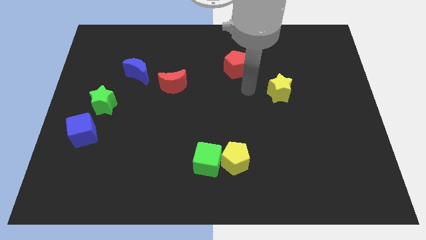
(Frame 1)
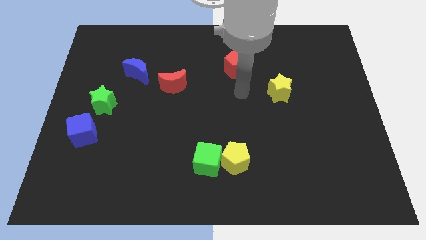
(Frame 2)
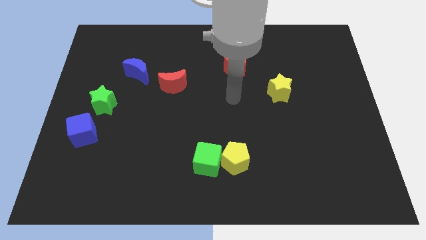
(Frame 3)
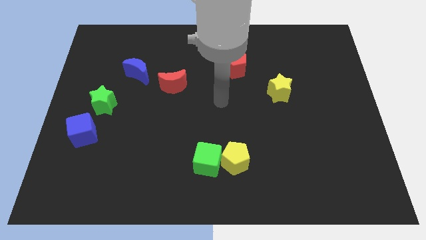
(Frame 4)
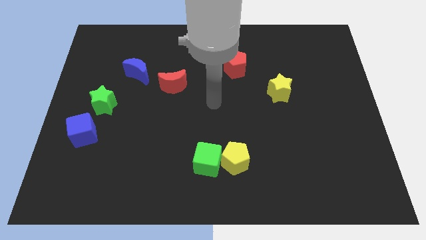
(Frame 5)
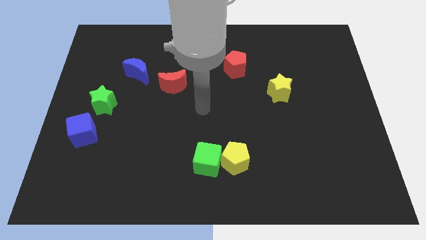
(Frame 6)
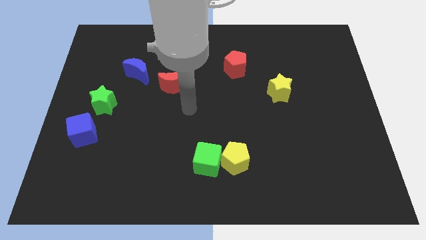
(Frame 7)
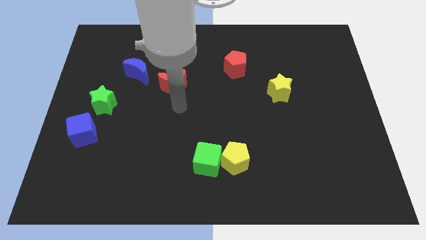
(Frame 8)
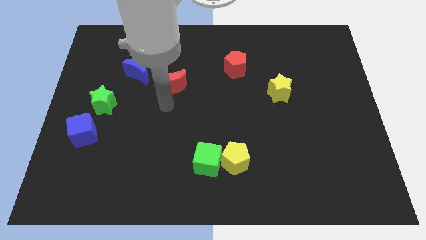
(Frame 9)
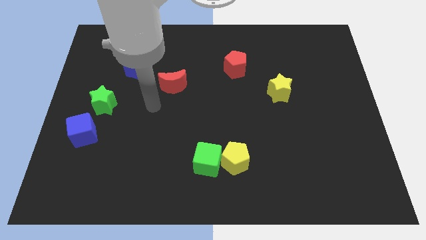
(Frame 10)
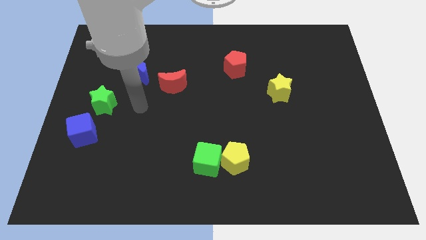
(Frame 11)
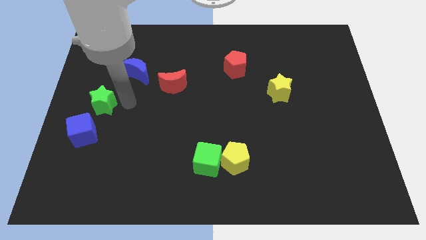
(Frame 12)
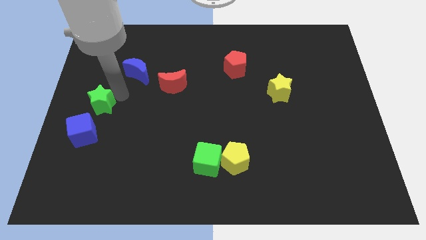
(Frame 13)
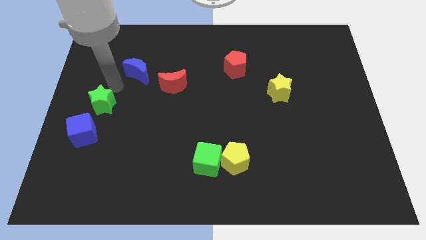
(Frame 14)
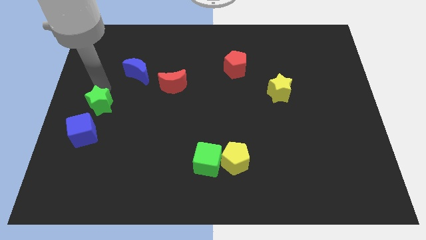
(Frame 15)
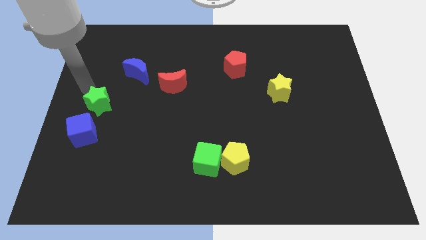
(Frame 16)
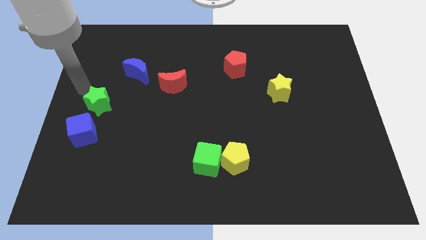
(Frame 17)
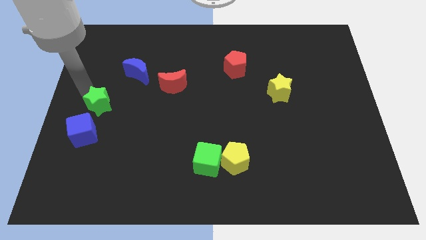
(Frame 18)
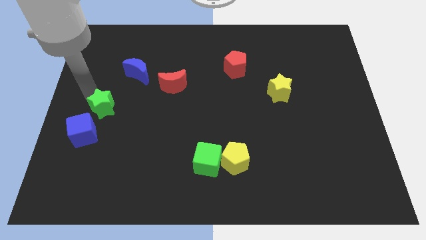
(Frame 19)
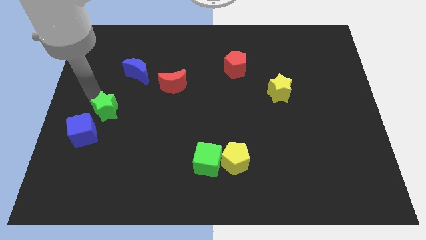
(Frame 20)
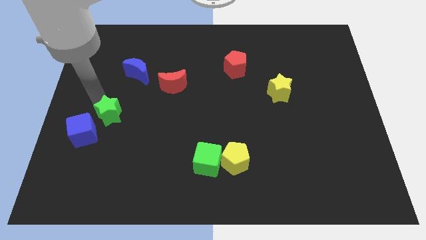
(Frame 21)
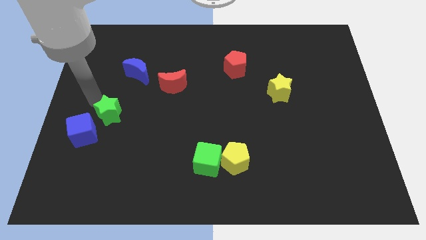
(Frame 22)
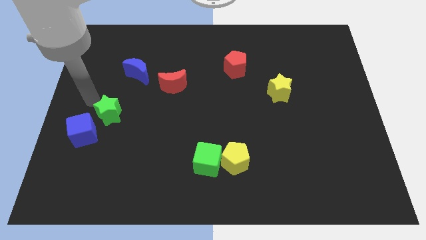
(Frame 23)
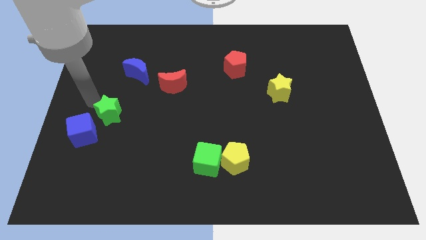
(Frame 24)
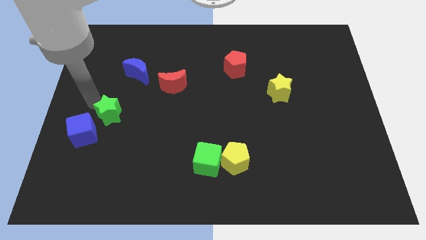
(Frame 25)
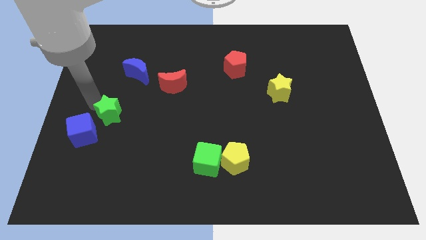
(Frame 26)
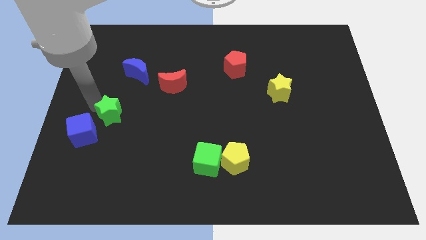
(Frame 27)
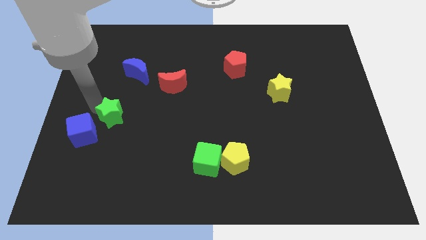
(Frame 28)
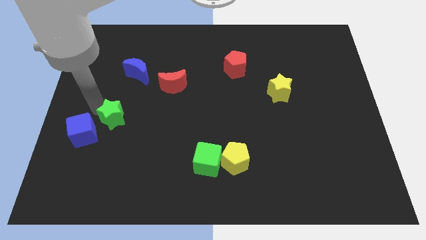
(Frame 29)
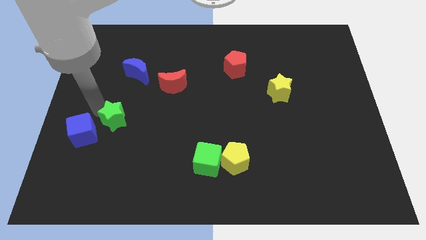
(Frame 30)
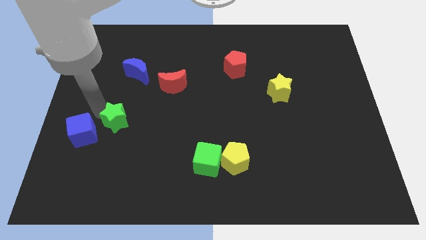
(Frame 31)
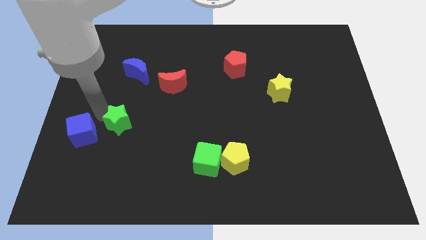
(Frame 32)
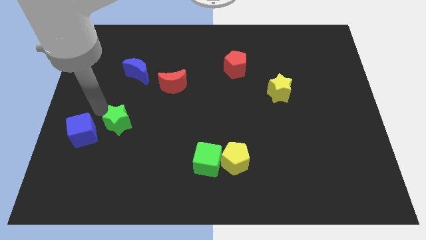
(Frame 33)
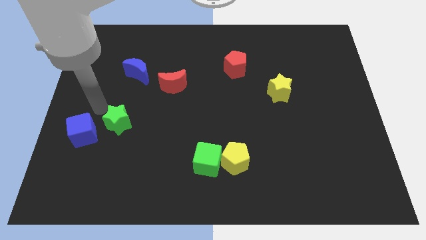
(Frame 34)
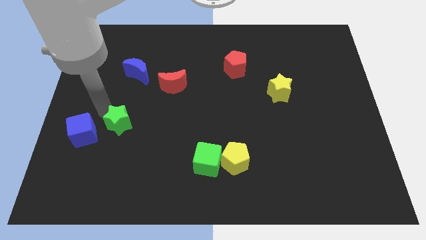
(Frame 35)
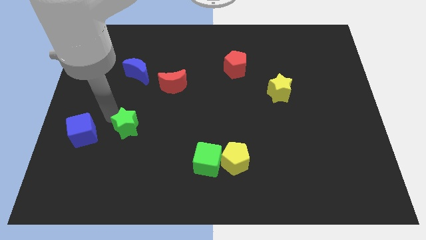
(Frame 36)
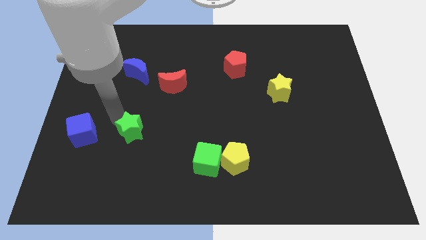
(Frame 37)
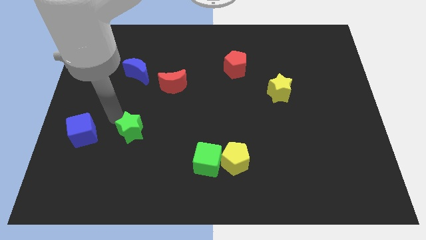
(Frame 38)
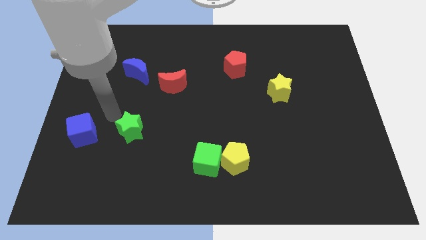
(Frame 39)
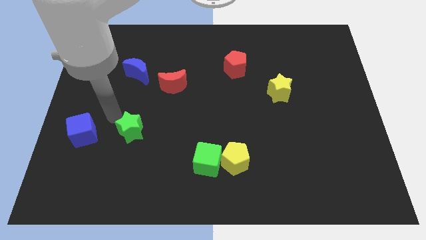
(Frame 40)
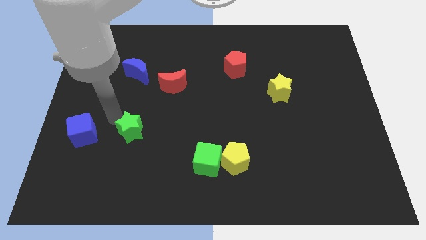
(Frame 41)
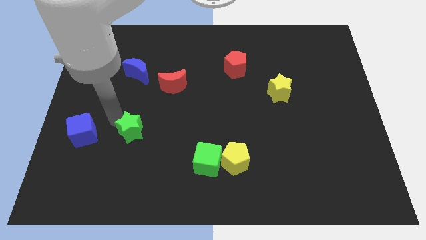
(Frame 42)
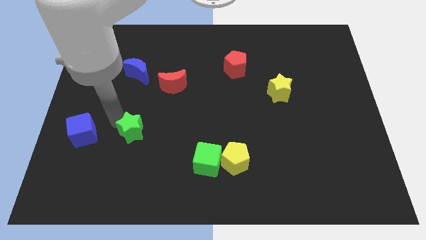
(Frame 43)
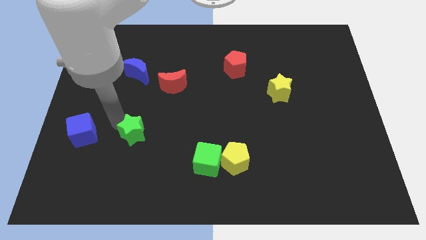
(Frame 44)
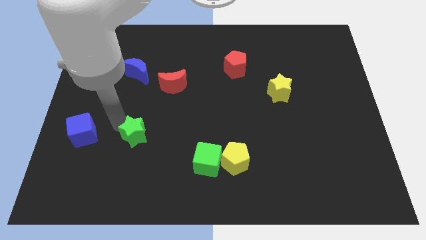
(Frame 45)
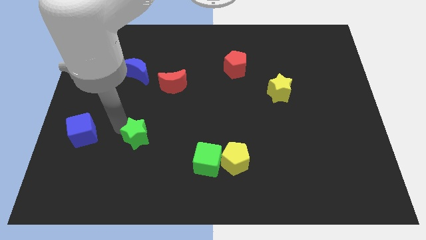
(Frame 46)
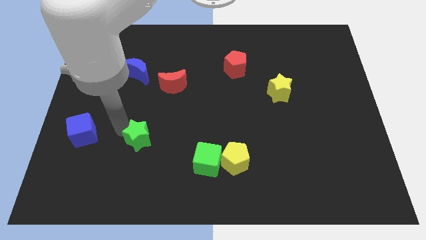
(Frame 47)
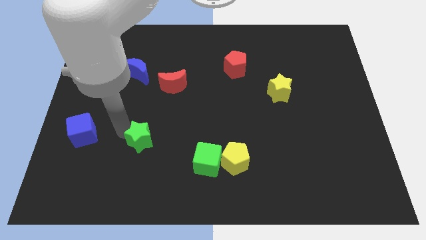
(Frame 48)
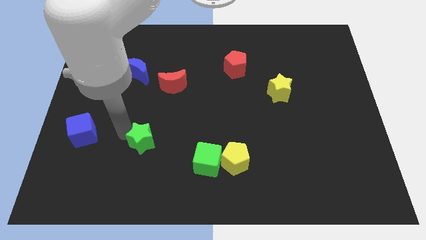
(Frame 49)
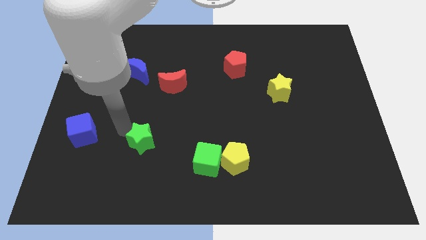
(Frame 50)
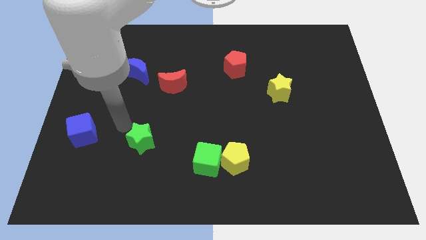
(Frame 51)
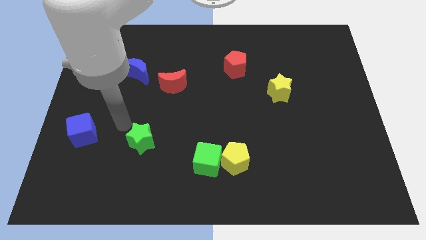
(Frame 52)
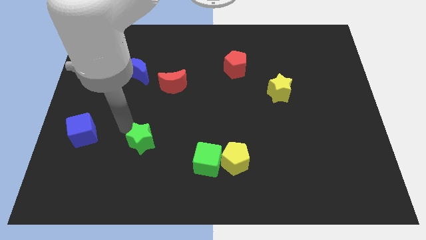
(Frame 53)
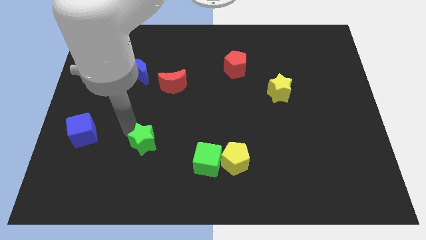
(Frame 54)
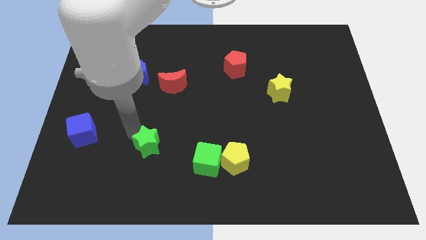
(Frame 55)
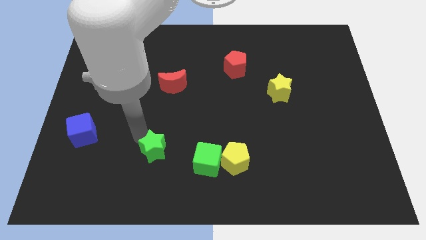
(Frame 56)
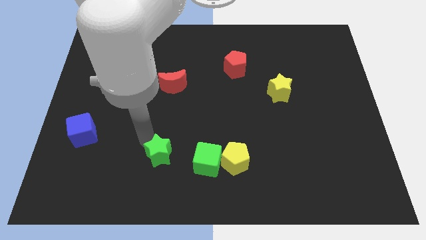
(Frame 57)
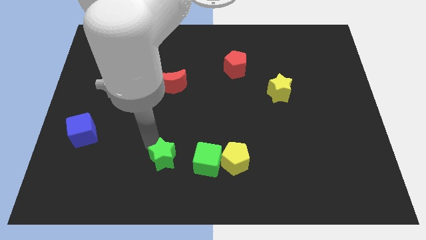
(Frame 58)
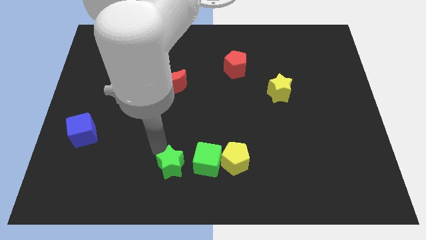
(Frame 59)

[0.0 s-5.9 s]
push the green star to the bottom
